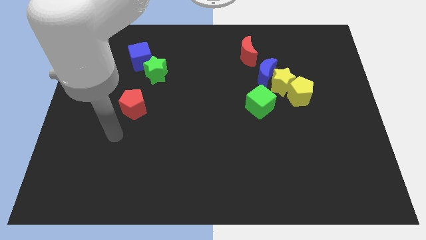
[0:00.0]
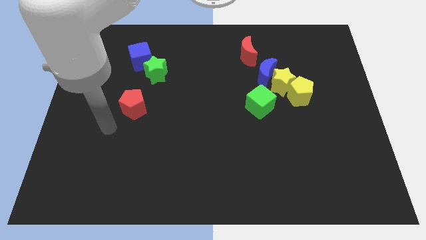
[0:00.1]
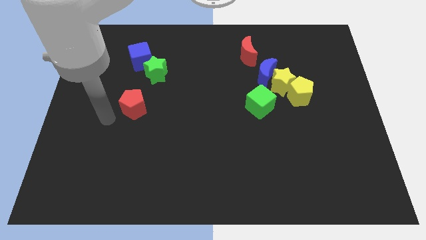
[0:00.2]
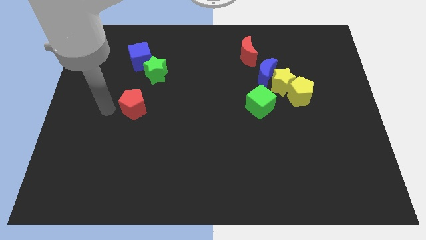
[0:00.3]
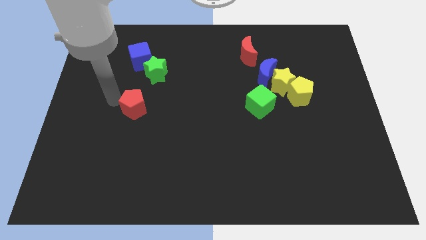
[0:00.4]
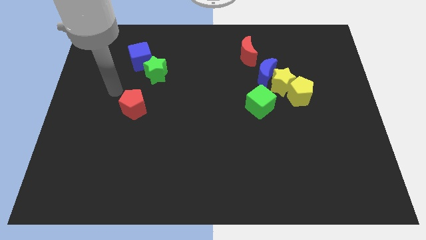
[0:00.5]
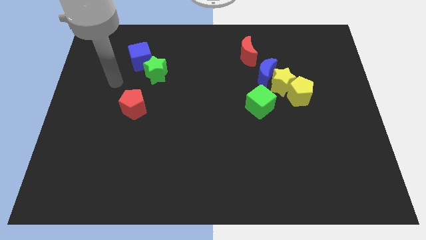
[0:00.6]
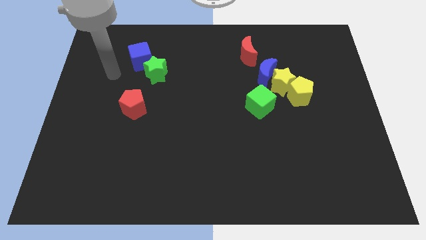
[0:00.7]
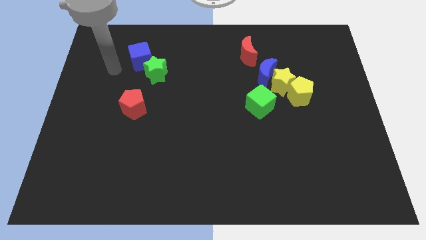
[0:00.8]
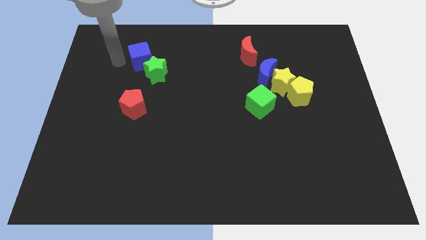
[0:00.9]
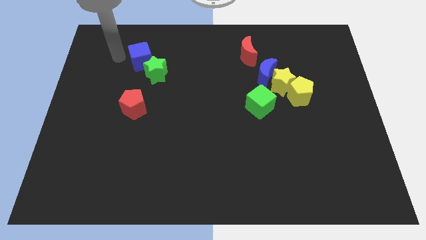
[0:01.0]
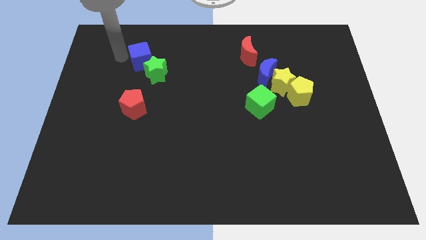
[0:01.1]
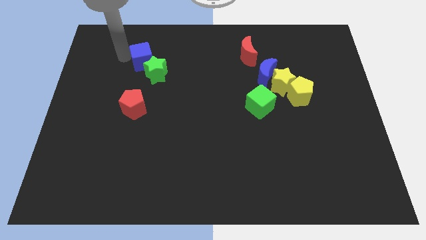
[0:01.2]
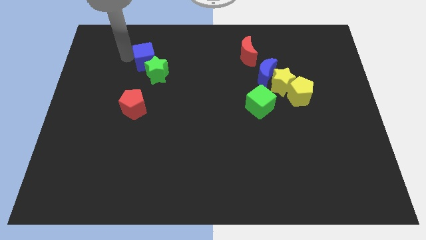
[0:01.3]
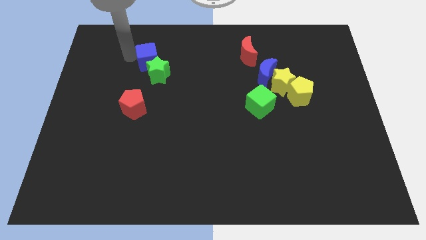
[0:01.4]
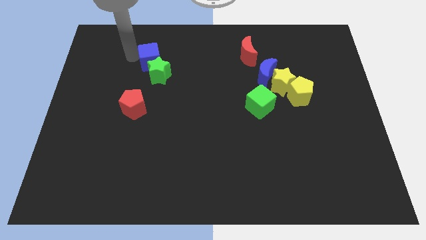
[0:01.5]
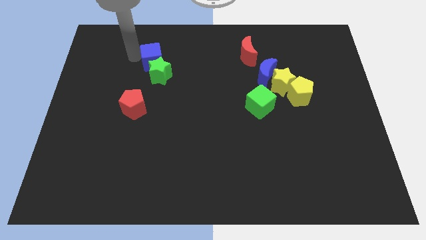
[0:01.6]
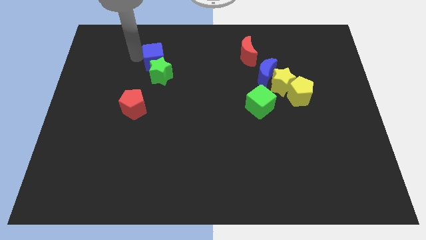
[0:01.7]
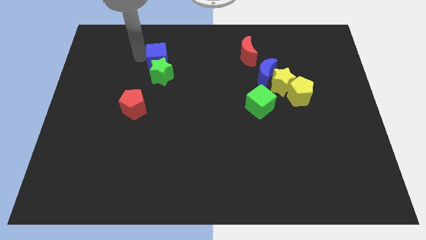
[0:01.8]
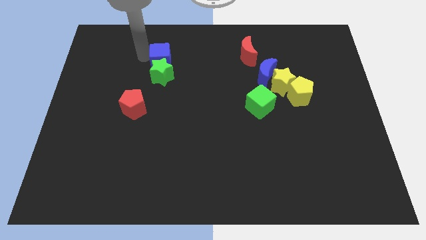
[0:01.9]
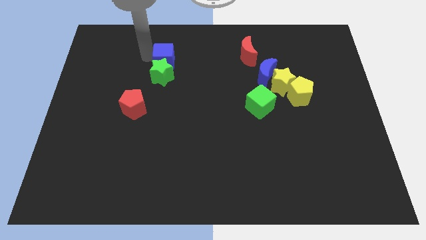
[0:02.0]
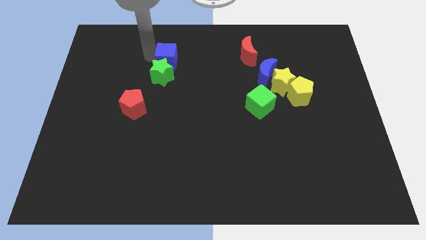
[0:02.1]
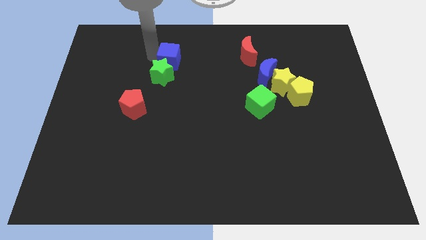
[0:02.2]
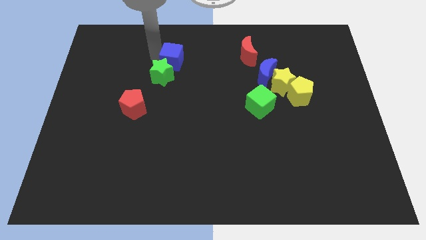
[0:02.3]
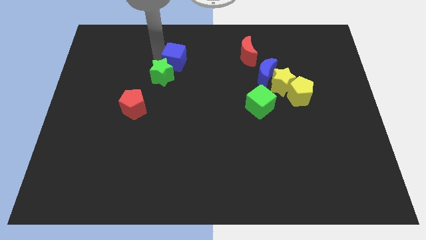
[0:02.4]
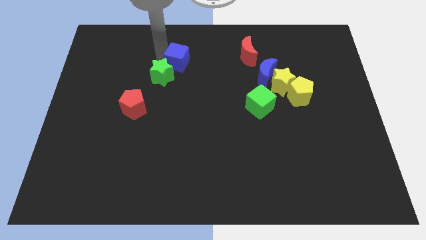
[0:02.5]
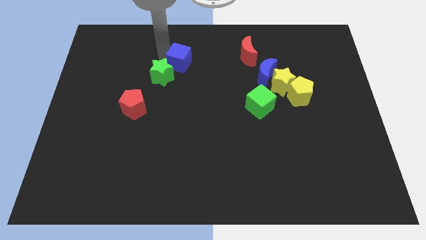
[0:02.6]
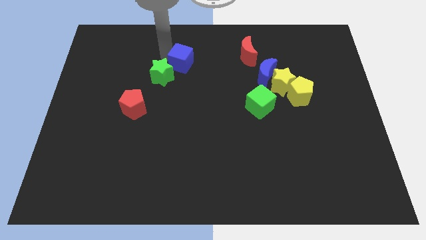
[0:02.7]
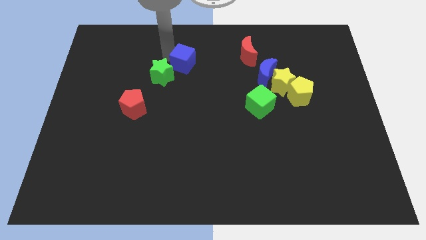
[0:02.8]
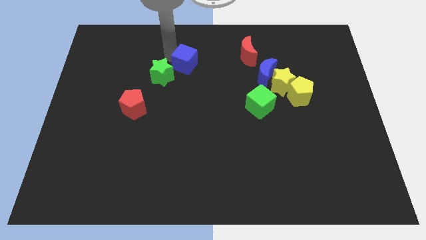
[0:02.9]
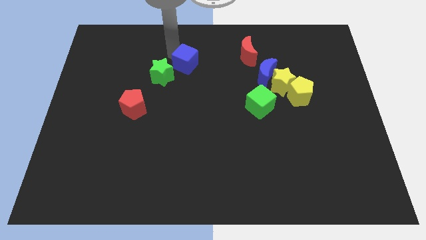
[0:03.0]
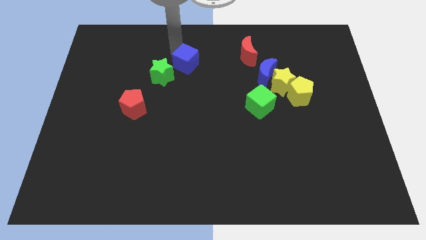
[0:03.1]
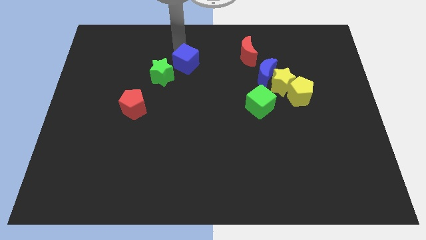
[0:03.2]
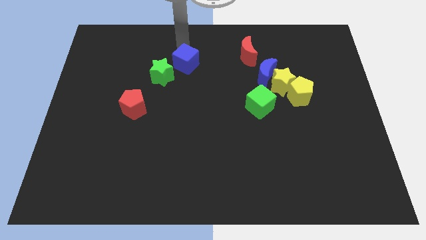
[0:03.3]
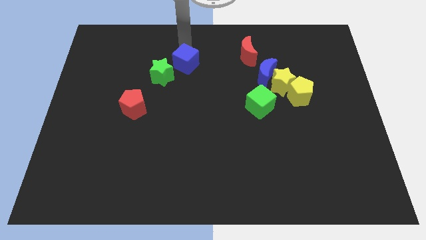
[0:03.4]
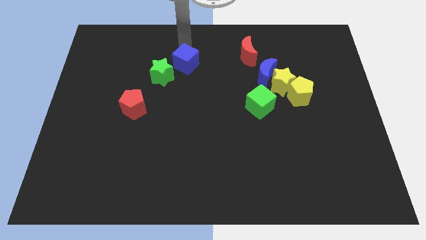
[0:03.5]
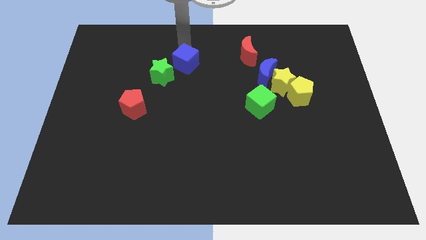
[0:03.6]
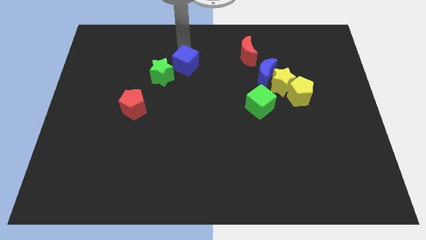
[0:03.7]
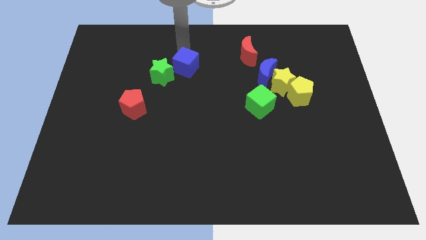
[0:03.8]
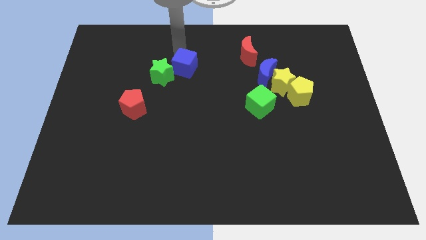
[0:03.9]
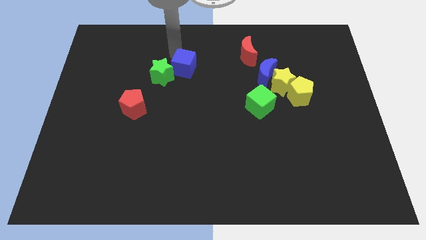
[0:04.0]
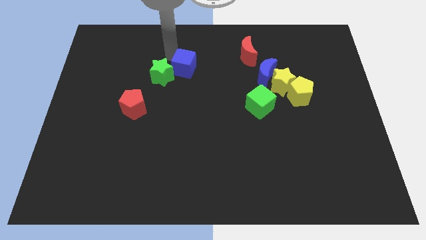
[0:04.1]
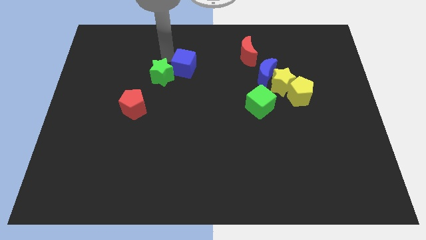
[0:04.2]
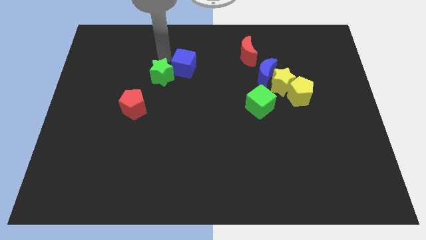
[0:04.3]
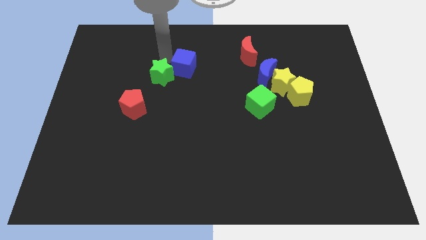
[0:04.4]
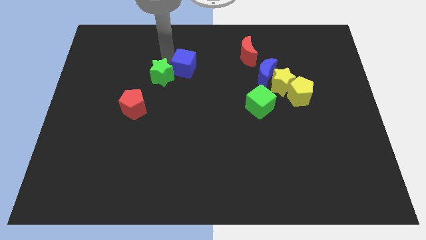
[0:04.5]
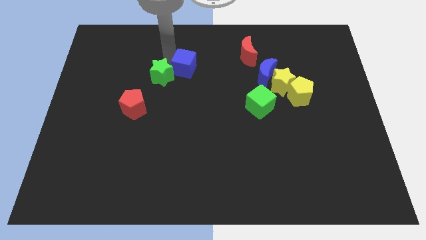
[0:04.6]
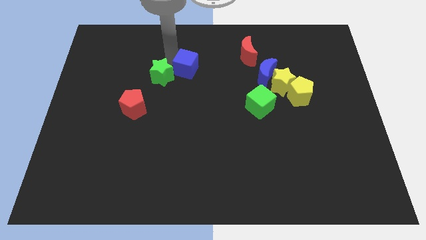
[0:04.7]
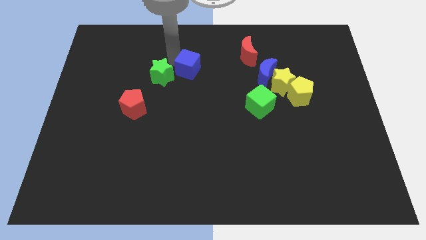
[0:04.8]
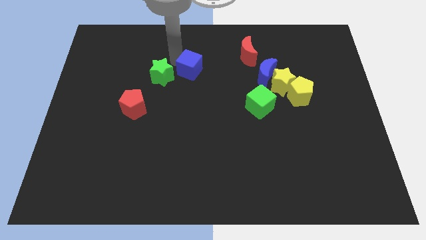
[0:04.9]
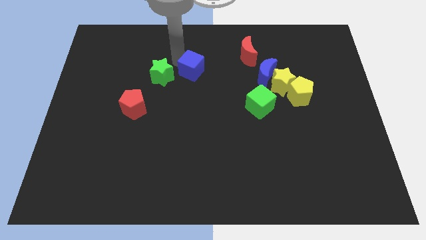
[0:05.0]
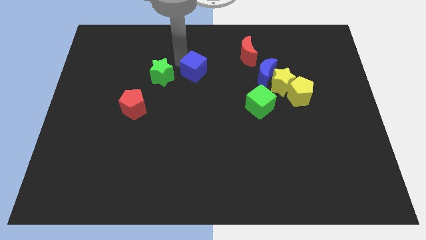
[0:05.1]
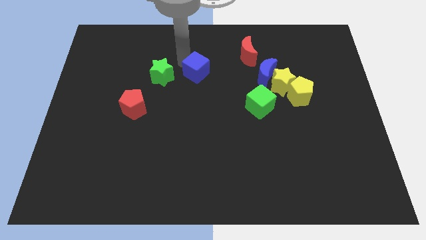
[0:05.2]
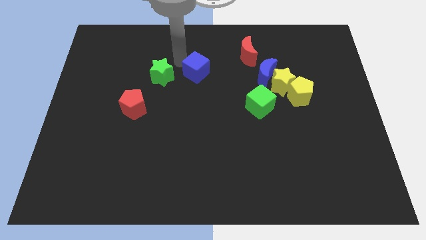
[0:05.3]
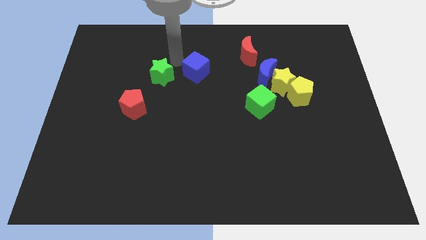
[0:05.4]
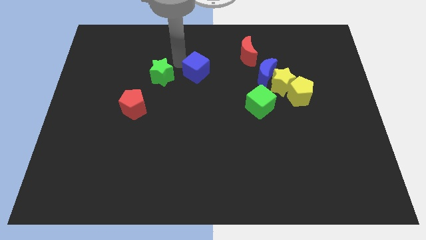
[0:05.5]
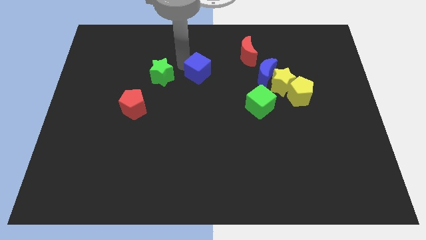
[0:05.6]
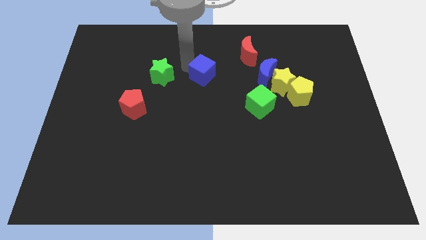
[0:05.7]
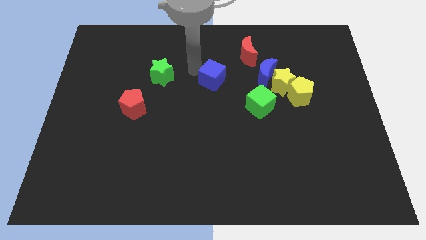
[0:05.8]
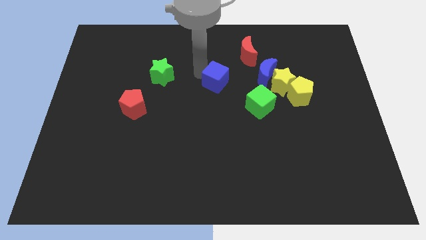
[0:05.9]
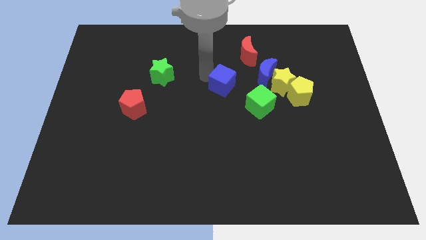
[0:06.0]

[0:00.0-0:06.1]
put the blue cube to the top left side of the green cube

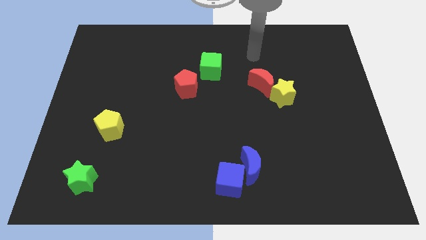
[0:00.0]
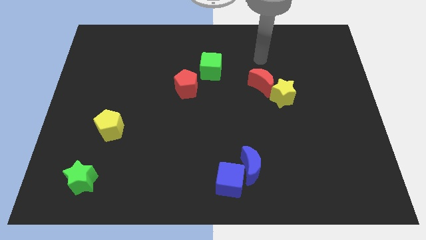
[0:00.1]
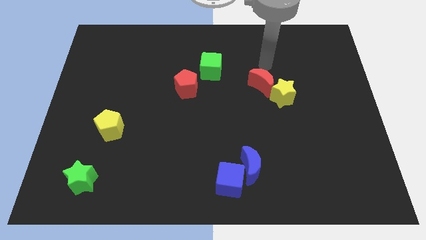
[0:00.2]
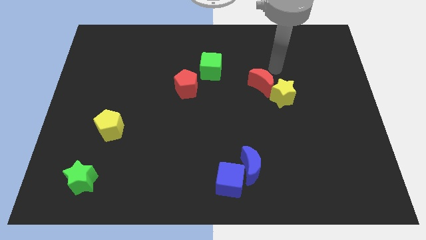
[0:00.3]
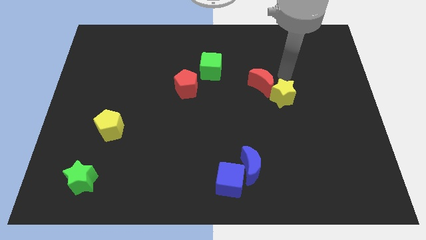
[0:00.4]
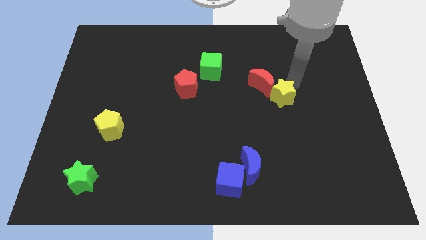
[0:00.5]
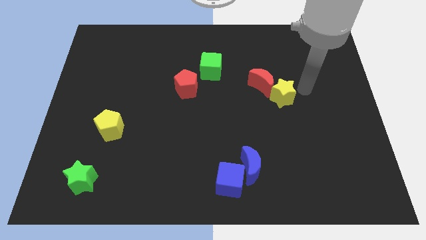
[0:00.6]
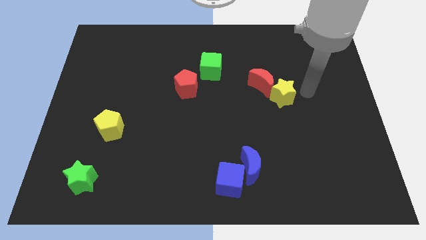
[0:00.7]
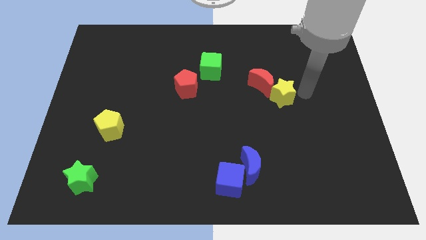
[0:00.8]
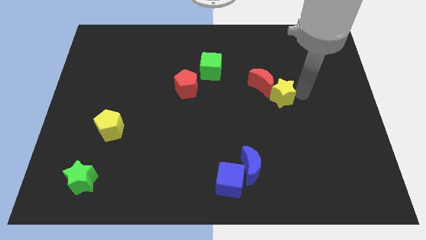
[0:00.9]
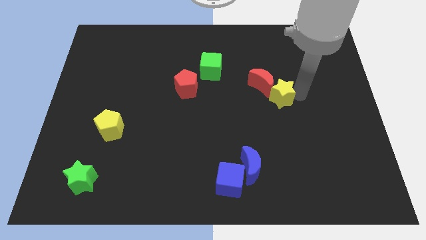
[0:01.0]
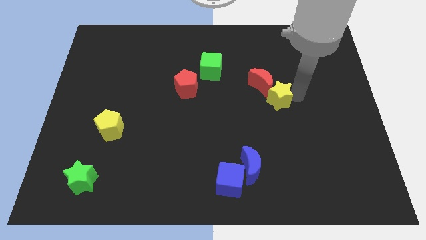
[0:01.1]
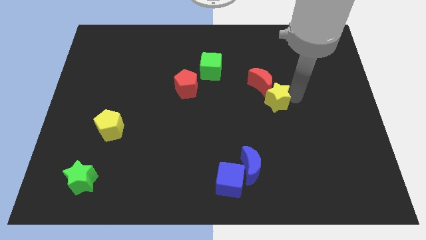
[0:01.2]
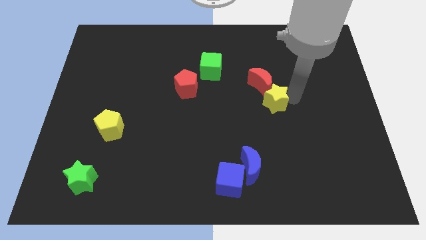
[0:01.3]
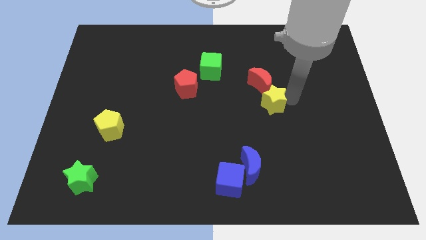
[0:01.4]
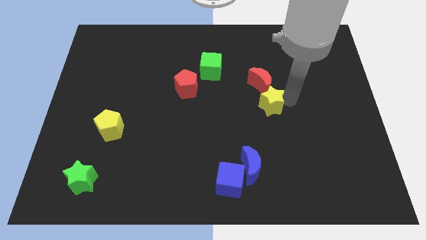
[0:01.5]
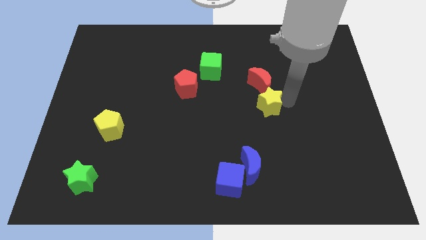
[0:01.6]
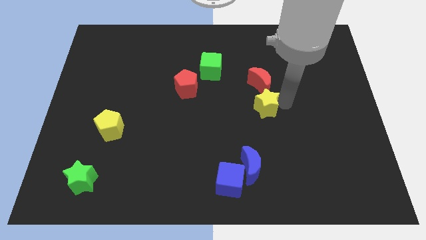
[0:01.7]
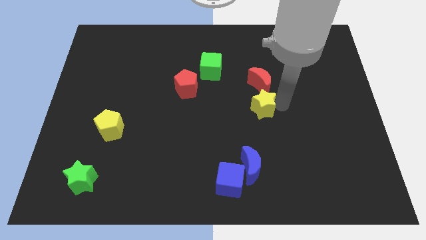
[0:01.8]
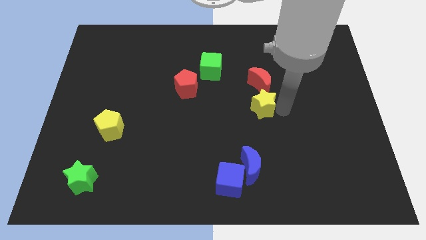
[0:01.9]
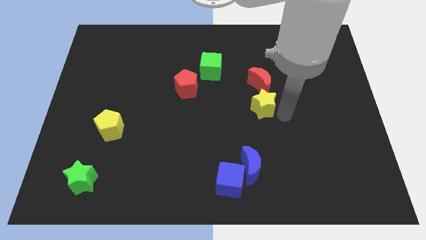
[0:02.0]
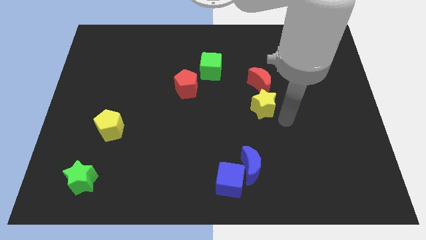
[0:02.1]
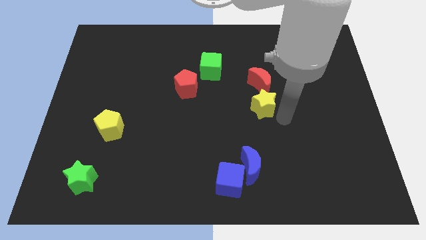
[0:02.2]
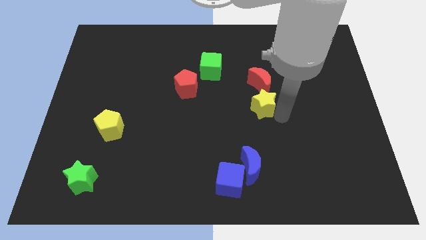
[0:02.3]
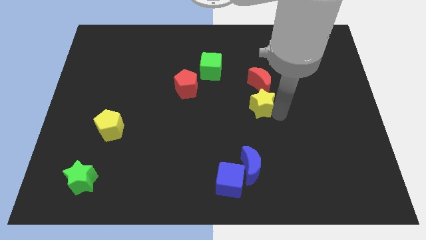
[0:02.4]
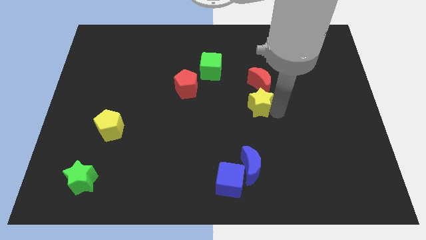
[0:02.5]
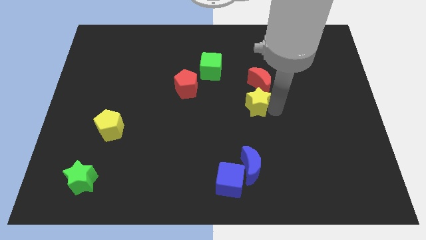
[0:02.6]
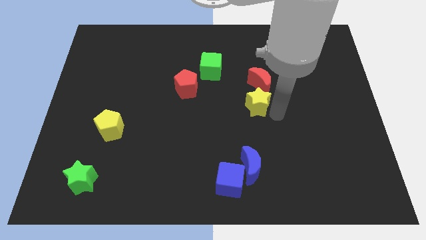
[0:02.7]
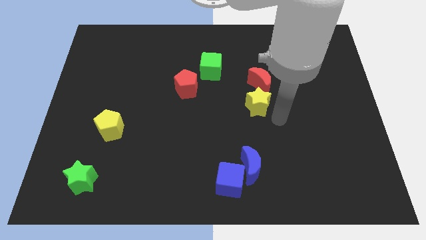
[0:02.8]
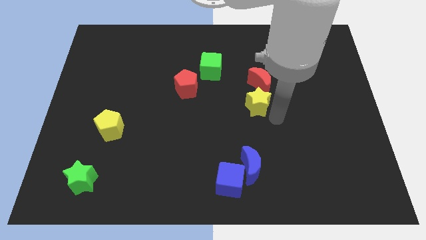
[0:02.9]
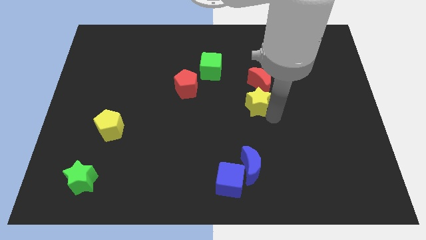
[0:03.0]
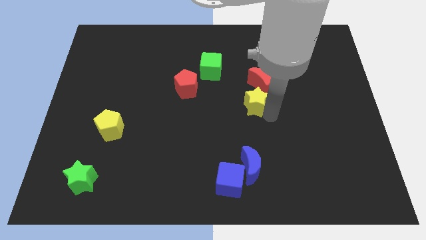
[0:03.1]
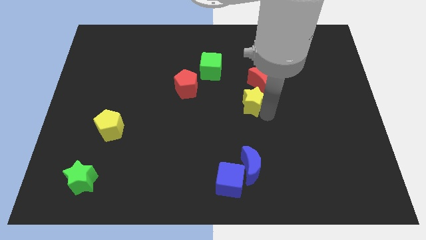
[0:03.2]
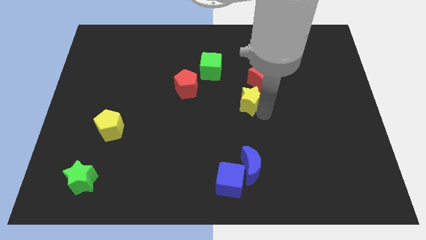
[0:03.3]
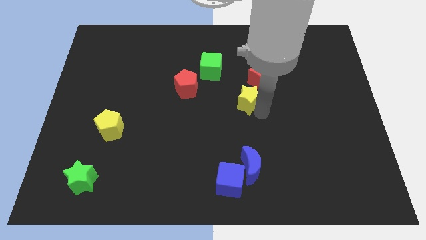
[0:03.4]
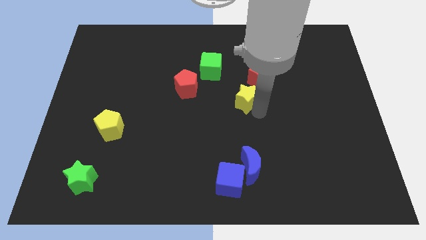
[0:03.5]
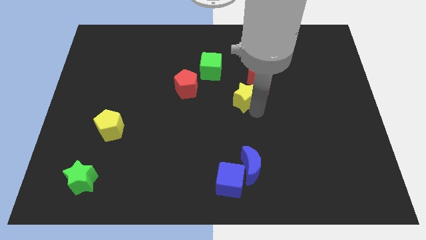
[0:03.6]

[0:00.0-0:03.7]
put the yellow star just left of the red moon
